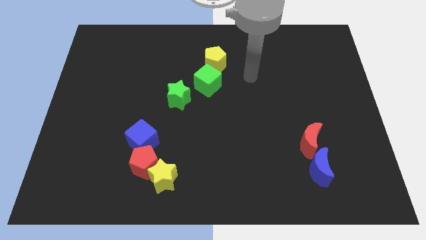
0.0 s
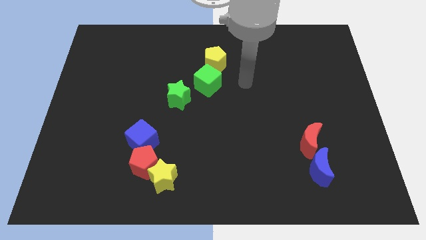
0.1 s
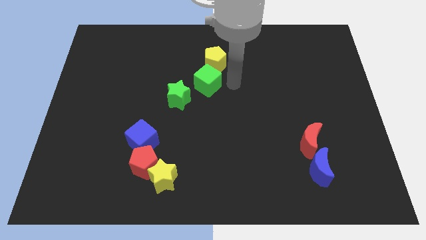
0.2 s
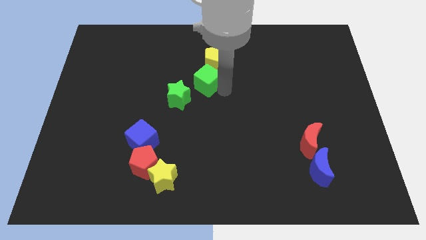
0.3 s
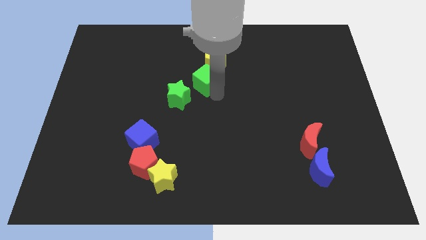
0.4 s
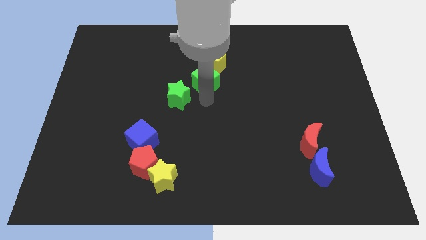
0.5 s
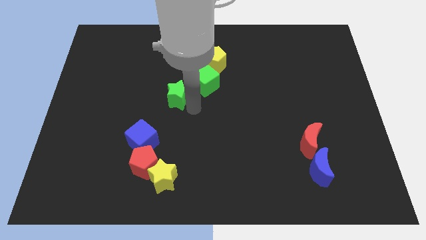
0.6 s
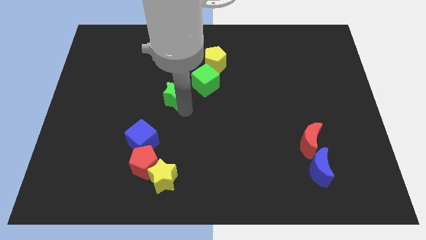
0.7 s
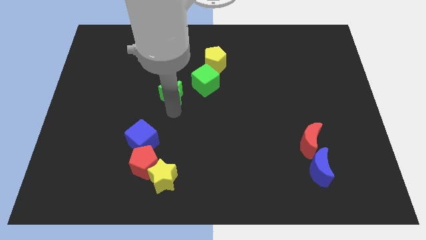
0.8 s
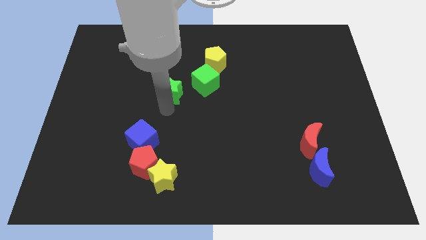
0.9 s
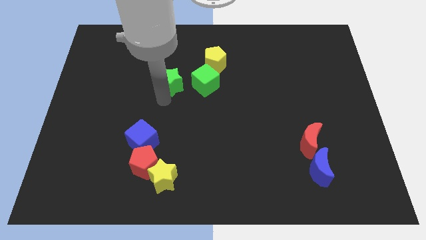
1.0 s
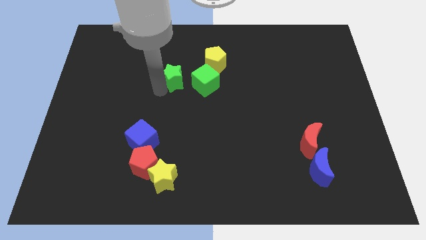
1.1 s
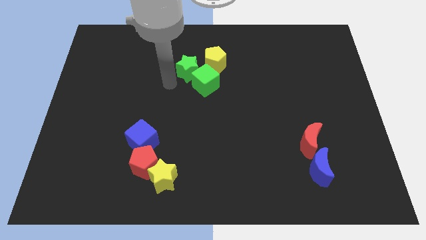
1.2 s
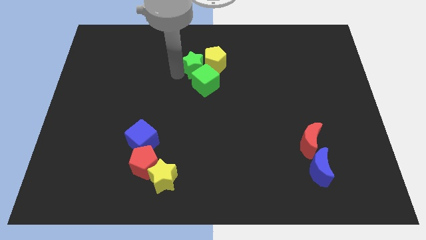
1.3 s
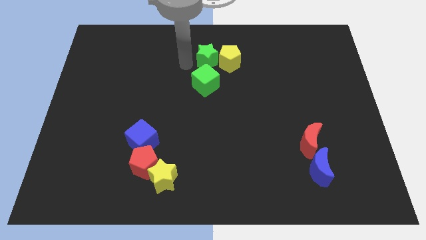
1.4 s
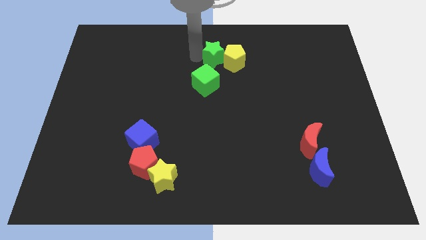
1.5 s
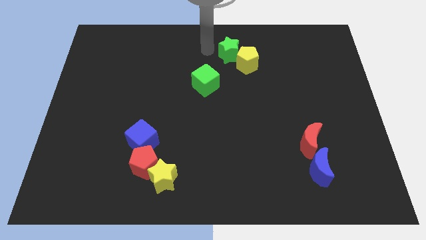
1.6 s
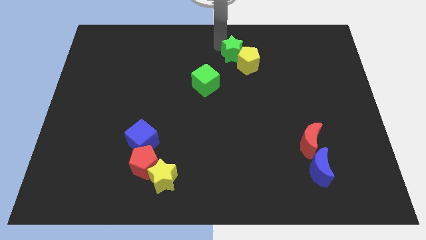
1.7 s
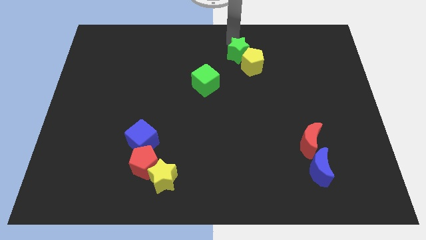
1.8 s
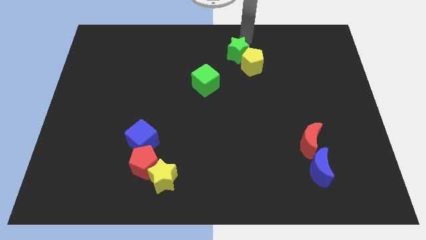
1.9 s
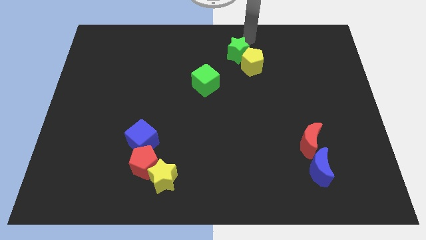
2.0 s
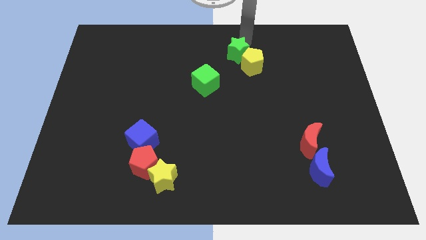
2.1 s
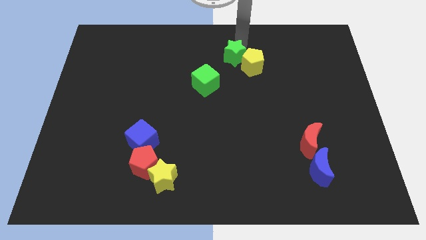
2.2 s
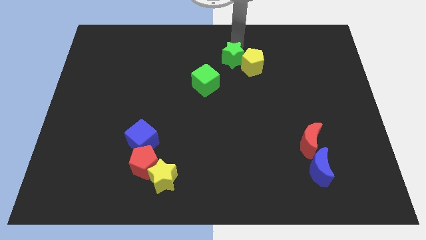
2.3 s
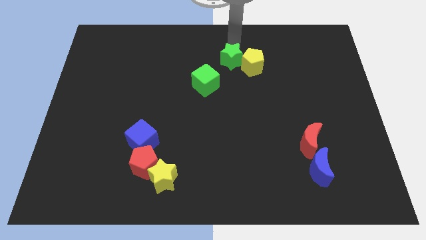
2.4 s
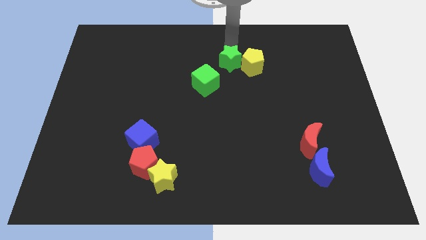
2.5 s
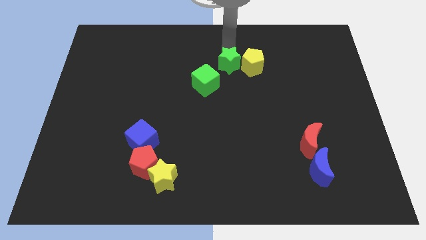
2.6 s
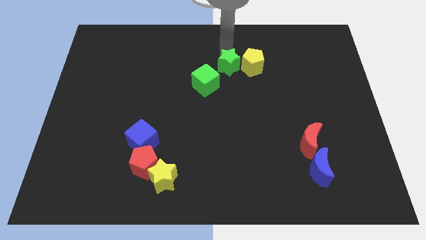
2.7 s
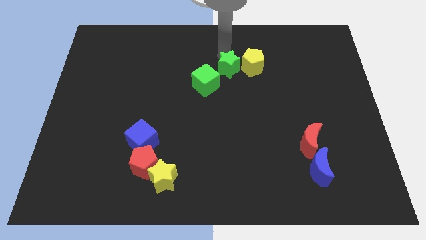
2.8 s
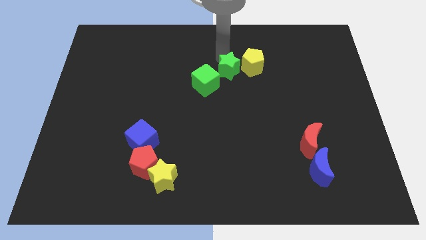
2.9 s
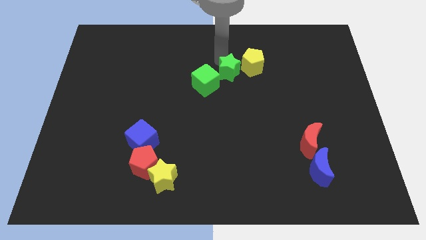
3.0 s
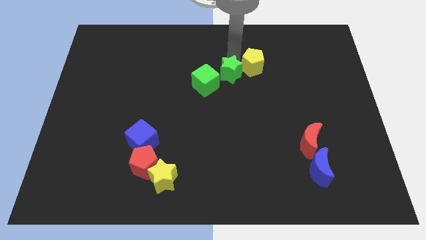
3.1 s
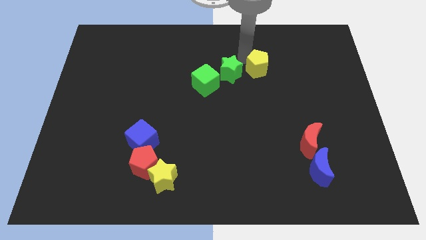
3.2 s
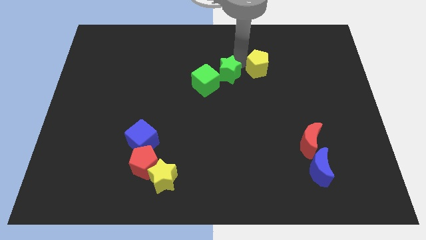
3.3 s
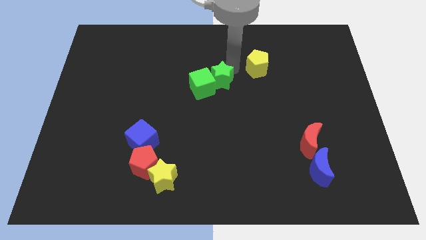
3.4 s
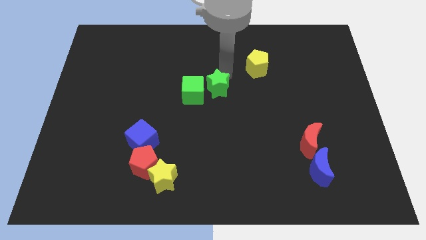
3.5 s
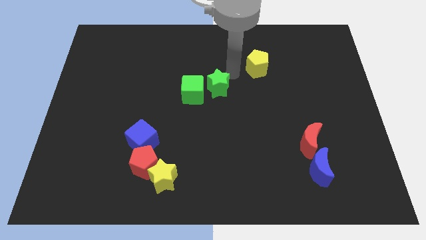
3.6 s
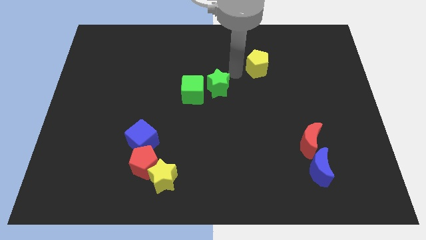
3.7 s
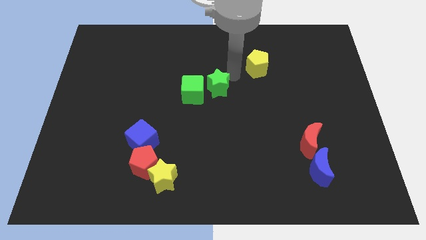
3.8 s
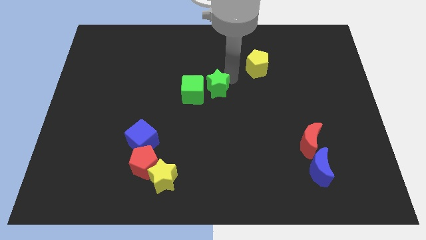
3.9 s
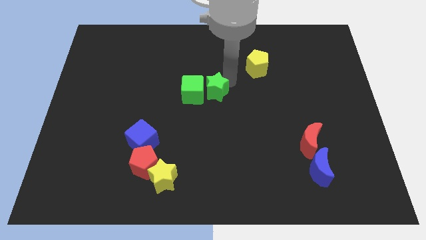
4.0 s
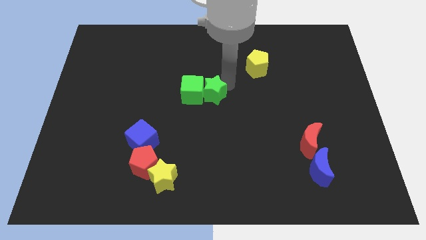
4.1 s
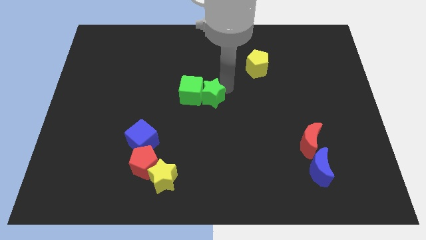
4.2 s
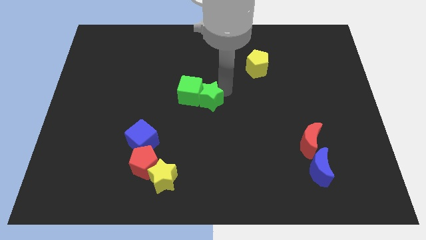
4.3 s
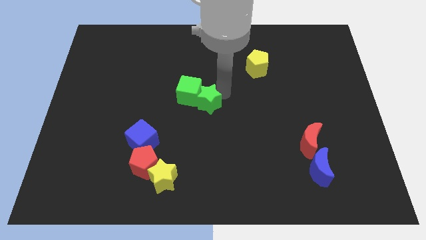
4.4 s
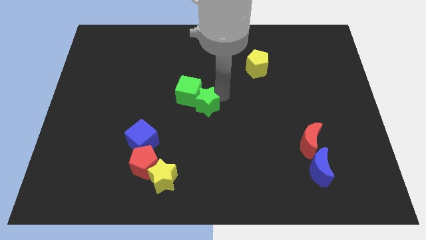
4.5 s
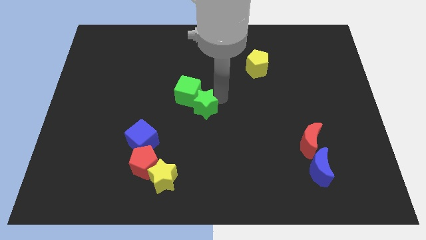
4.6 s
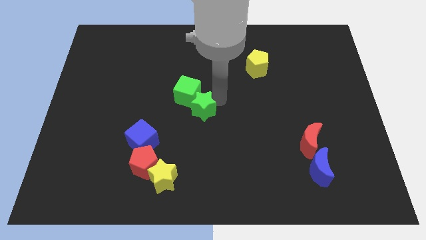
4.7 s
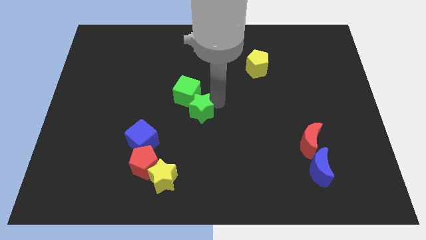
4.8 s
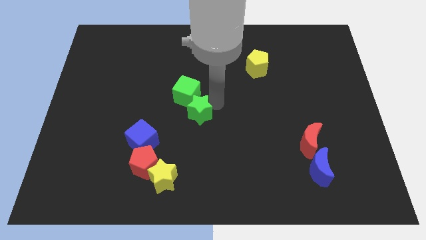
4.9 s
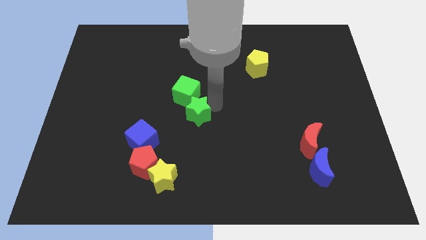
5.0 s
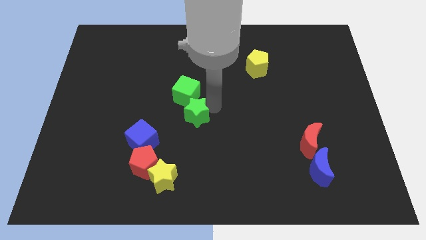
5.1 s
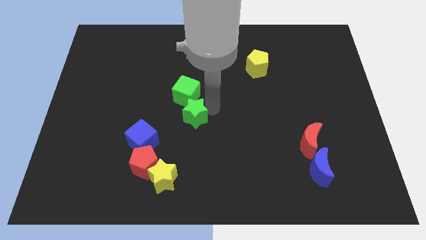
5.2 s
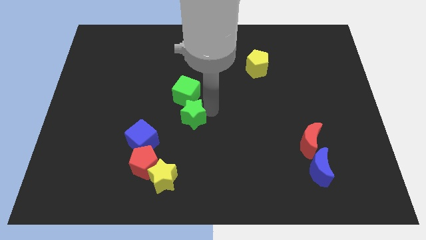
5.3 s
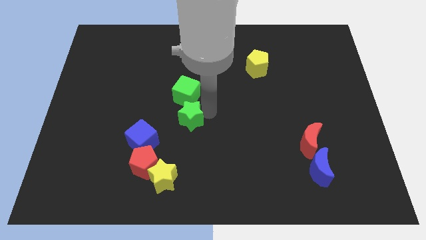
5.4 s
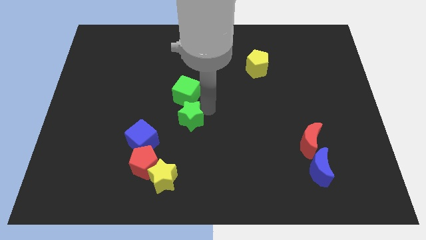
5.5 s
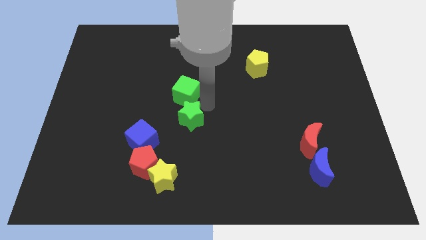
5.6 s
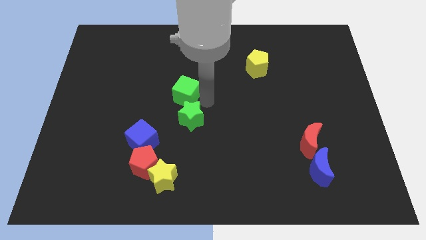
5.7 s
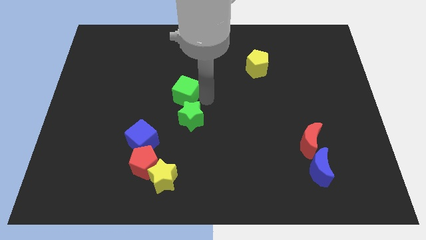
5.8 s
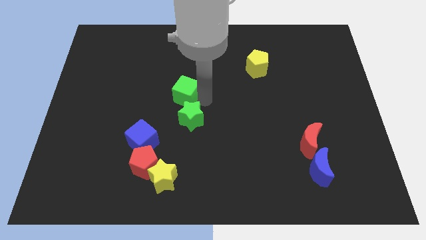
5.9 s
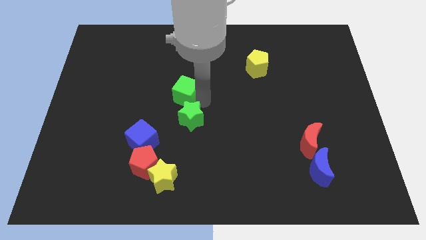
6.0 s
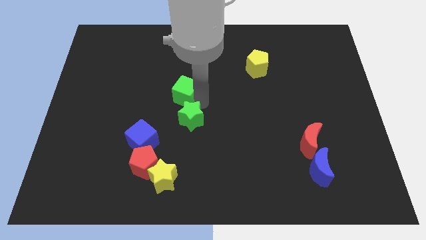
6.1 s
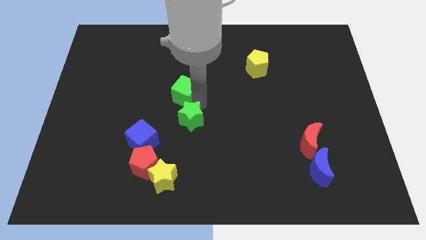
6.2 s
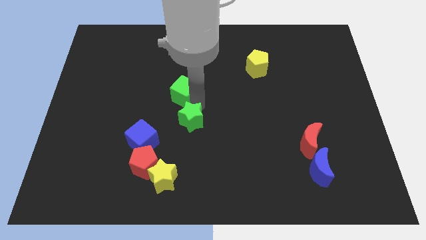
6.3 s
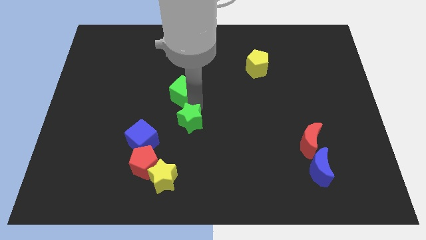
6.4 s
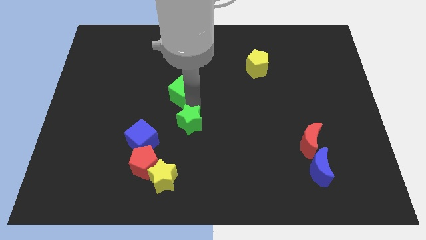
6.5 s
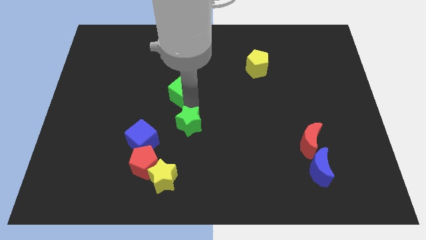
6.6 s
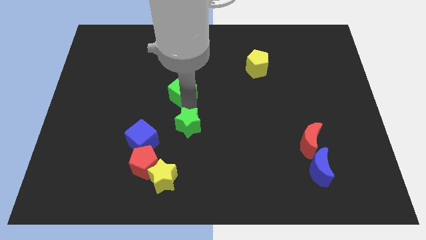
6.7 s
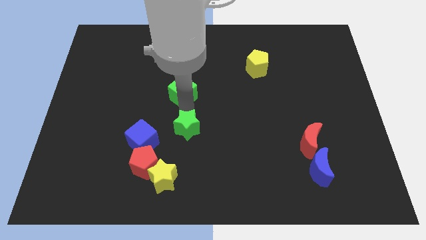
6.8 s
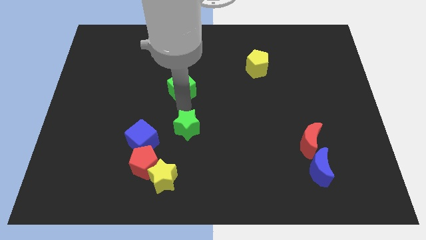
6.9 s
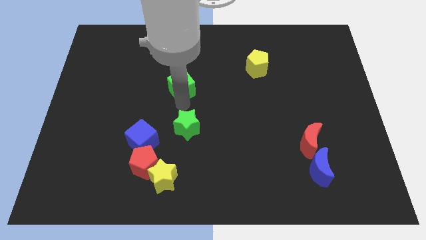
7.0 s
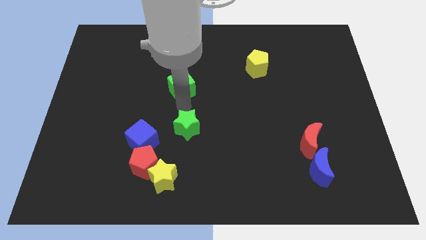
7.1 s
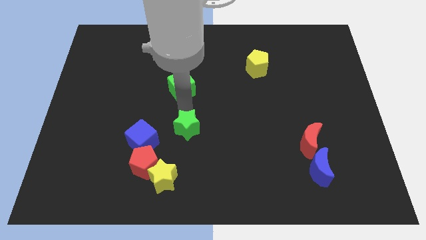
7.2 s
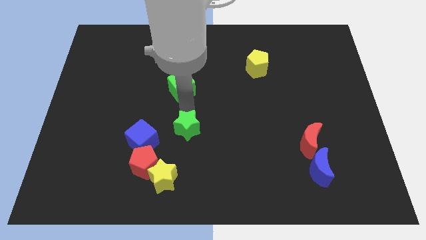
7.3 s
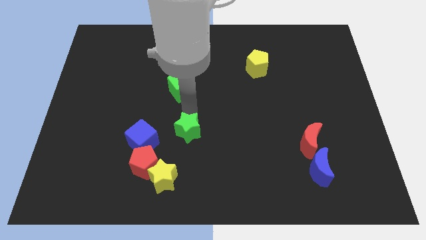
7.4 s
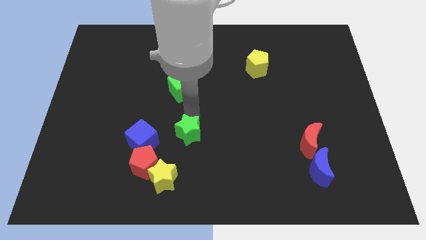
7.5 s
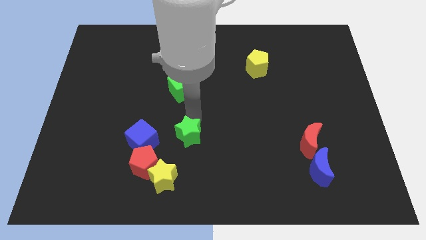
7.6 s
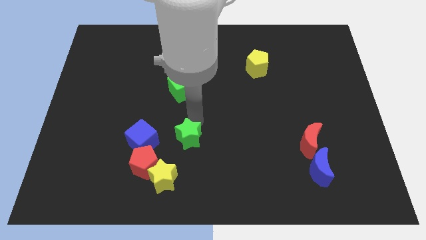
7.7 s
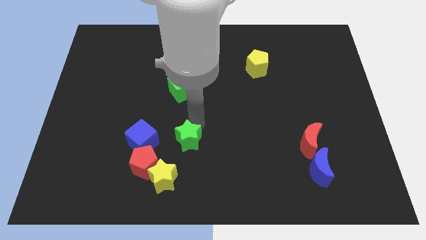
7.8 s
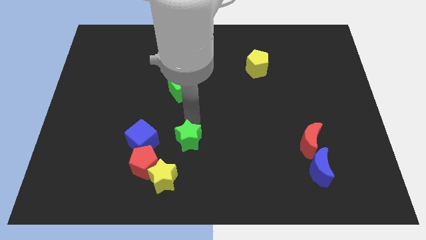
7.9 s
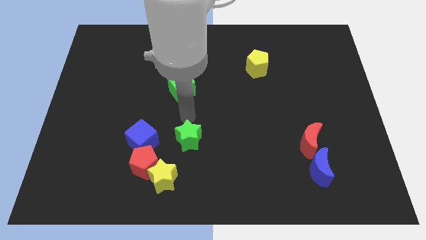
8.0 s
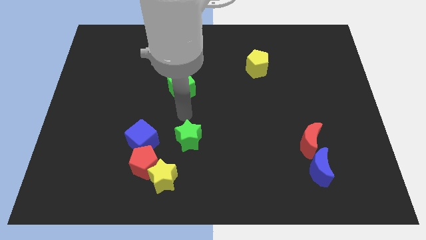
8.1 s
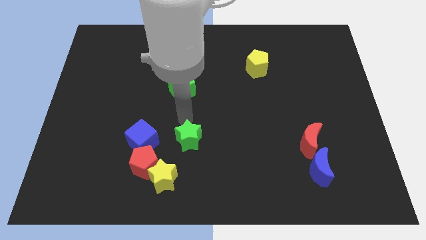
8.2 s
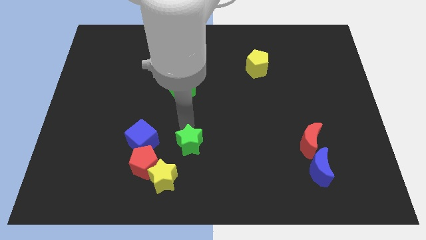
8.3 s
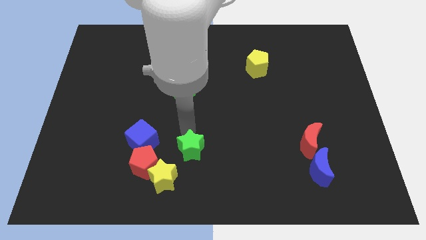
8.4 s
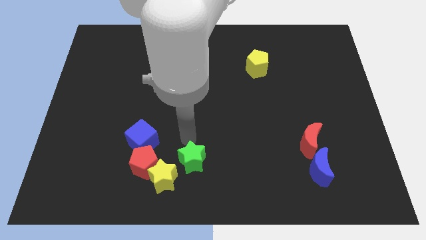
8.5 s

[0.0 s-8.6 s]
push the green star just right of the yellow star
